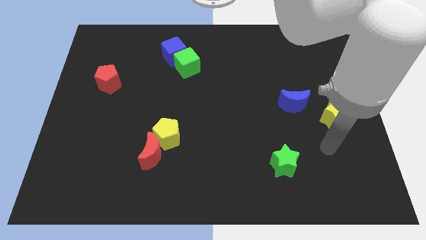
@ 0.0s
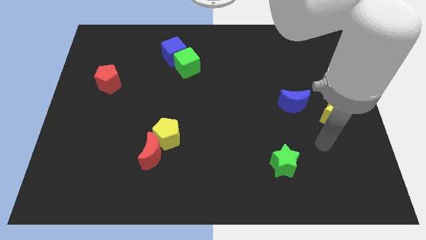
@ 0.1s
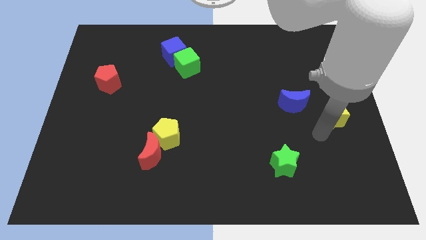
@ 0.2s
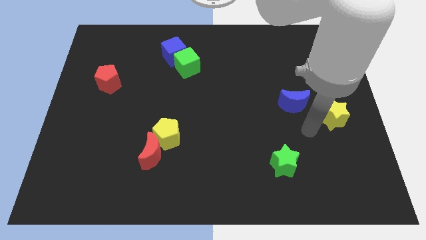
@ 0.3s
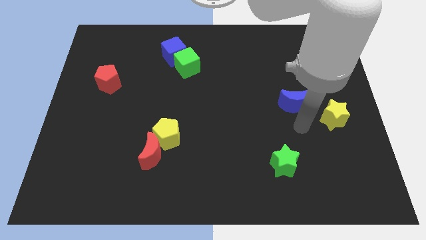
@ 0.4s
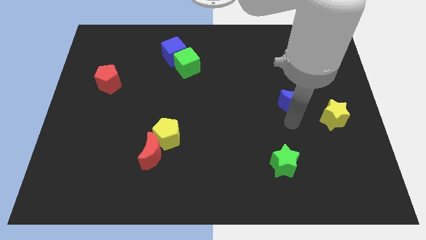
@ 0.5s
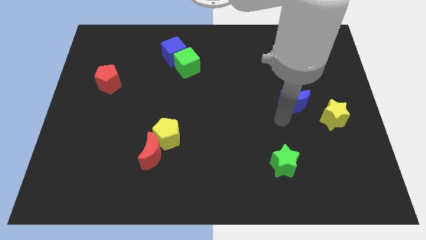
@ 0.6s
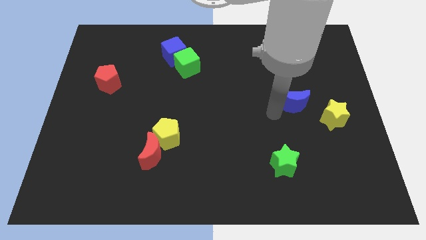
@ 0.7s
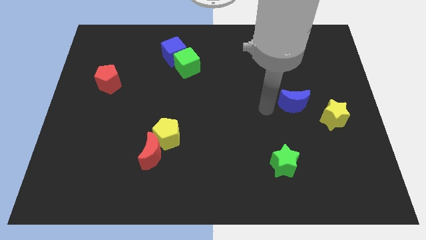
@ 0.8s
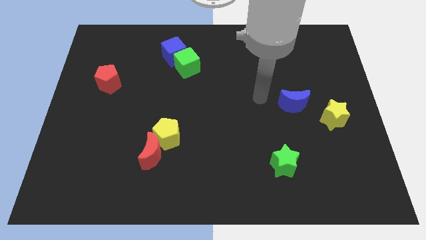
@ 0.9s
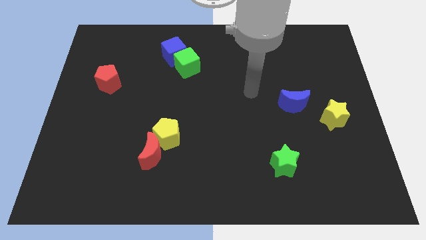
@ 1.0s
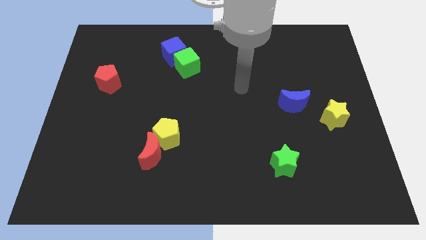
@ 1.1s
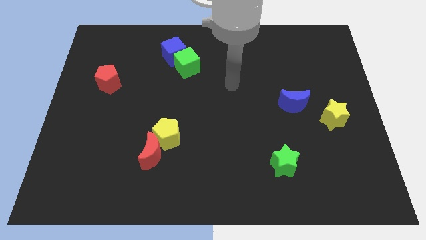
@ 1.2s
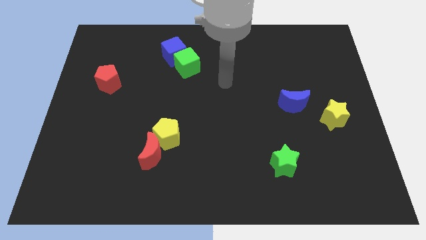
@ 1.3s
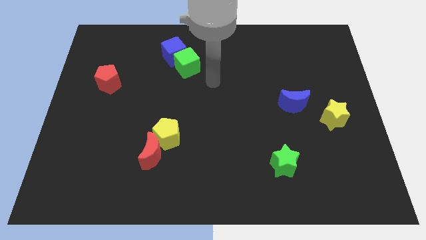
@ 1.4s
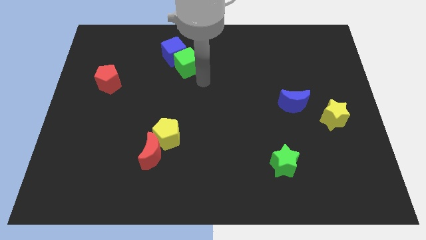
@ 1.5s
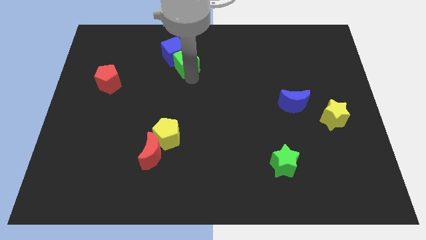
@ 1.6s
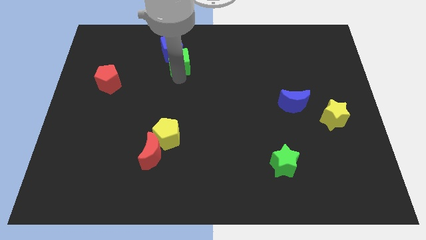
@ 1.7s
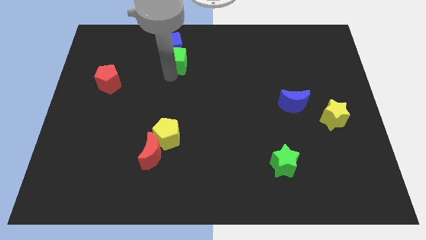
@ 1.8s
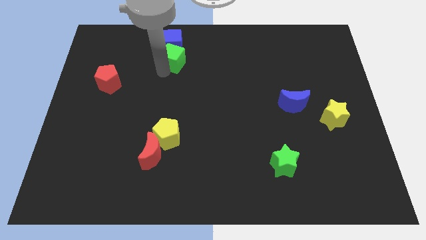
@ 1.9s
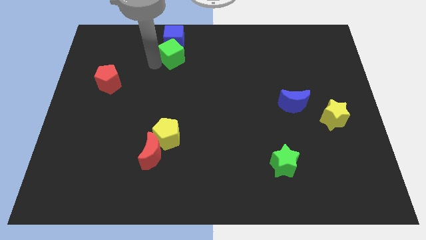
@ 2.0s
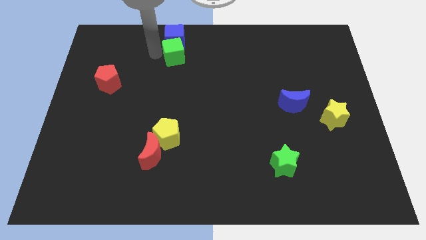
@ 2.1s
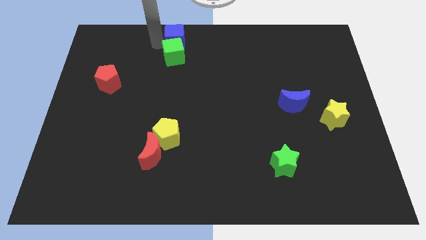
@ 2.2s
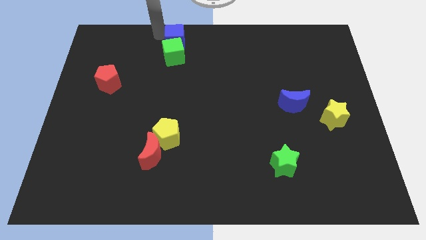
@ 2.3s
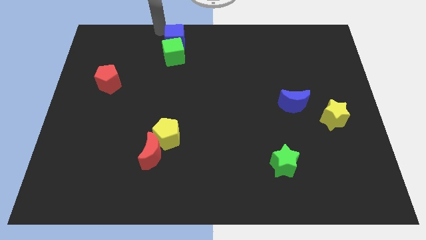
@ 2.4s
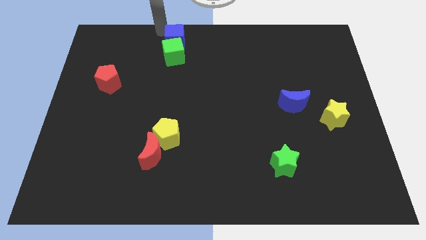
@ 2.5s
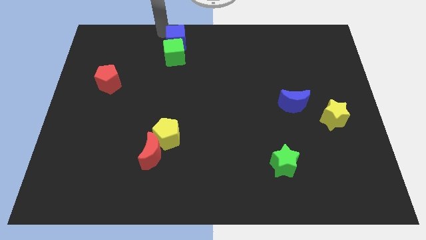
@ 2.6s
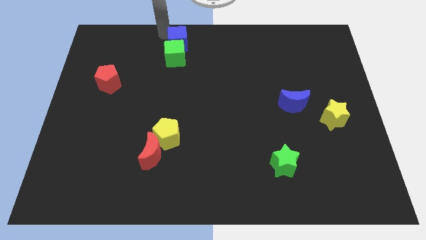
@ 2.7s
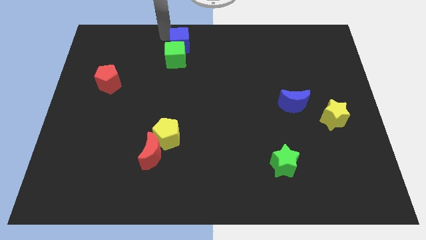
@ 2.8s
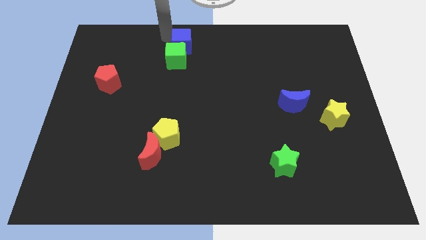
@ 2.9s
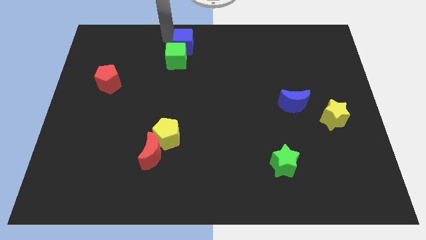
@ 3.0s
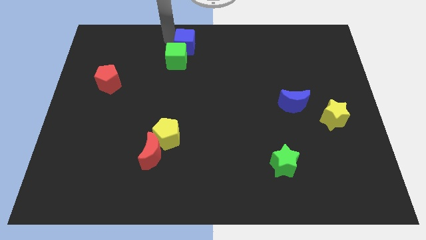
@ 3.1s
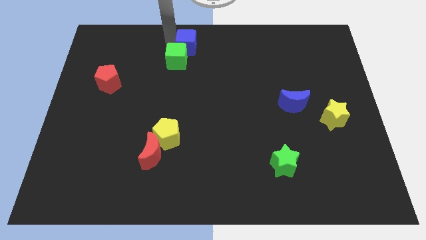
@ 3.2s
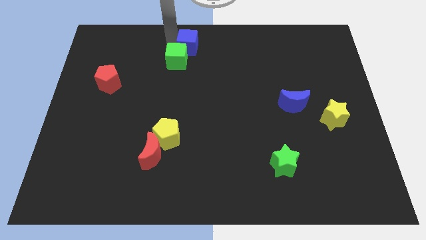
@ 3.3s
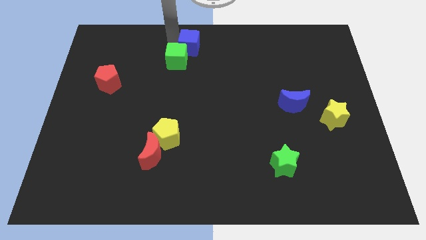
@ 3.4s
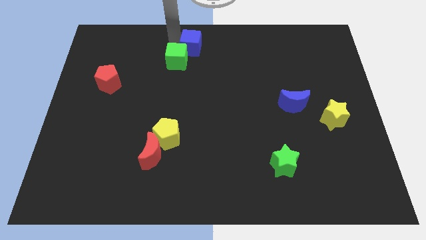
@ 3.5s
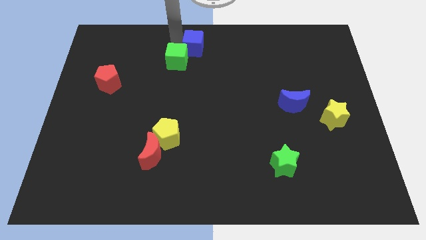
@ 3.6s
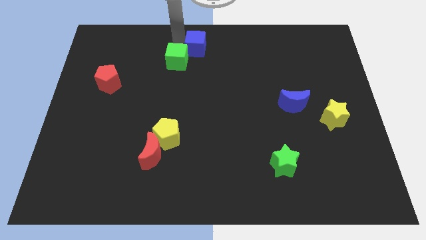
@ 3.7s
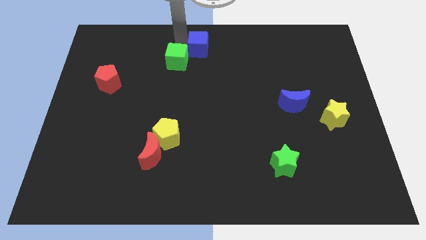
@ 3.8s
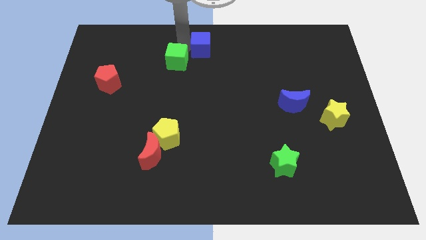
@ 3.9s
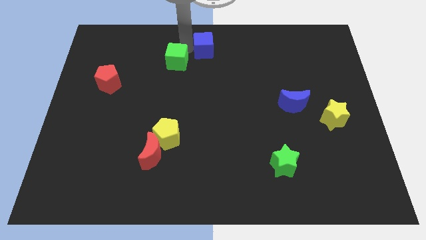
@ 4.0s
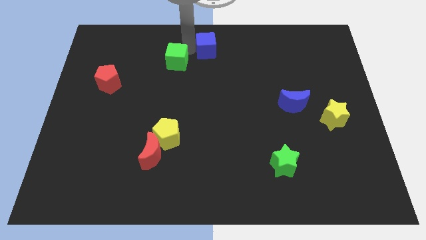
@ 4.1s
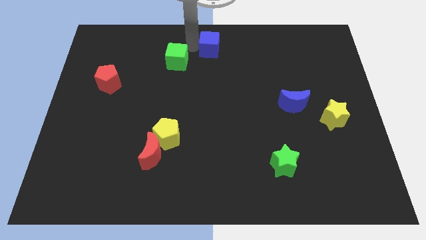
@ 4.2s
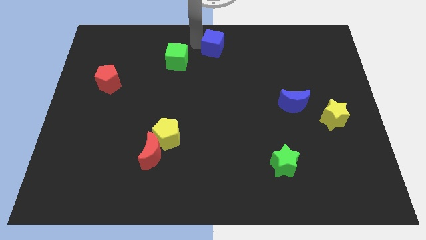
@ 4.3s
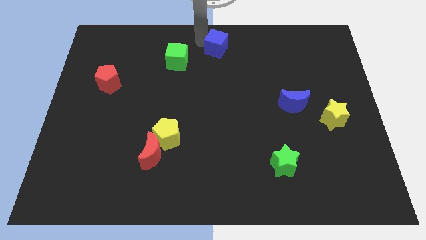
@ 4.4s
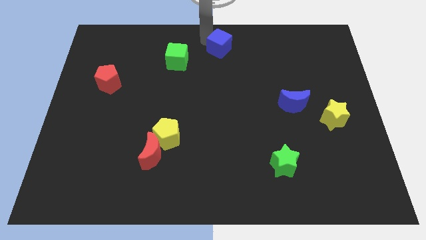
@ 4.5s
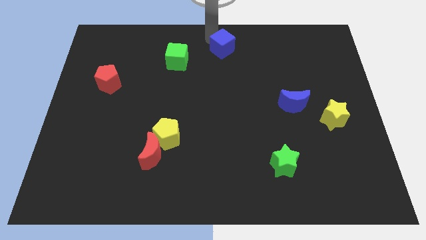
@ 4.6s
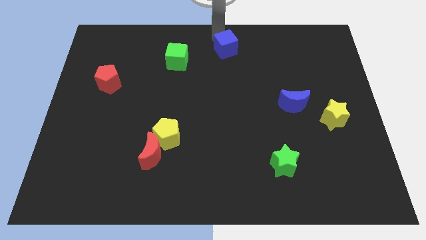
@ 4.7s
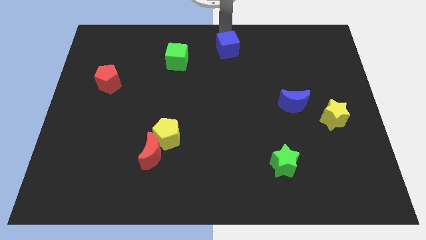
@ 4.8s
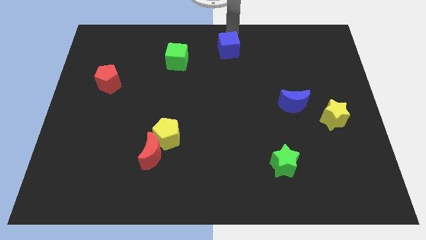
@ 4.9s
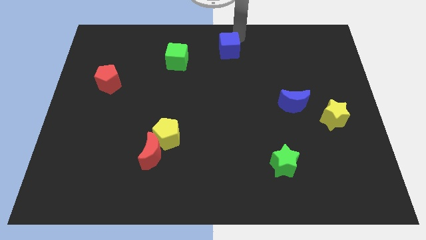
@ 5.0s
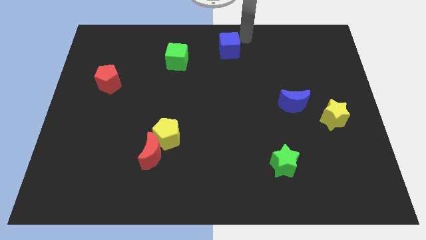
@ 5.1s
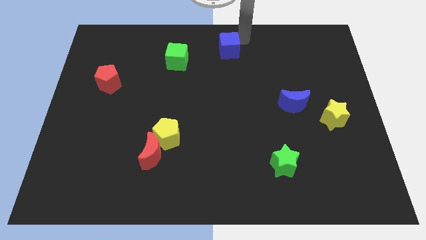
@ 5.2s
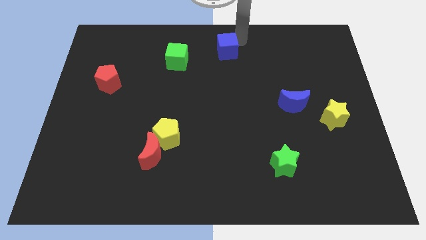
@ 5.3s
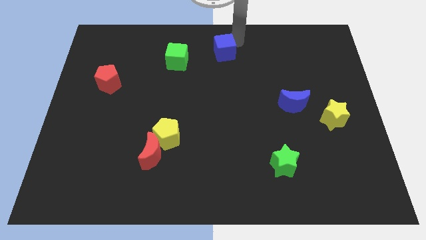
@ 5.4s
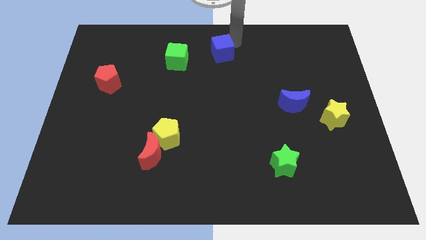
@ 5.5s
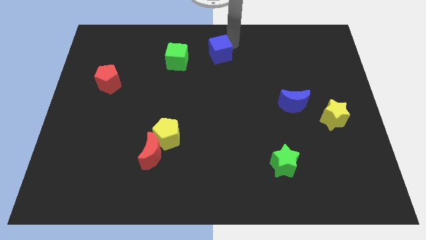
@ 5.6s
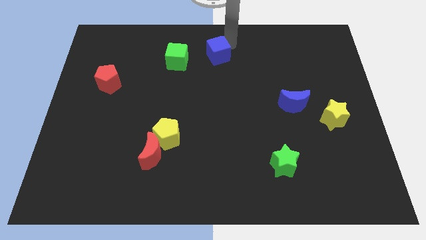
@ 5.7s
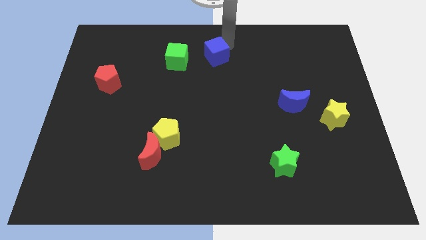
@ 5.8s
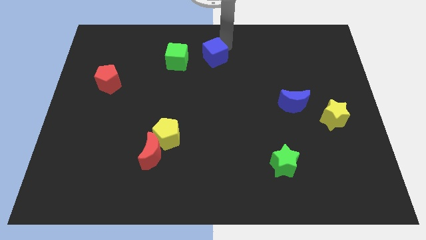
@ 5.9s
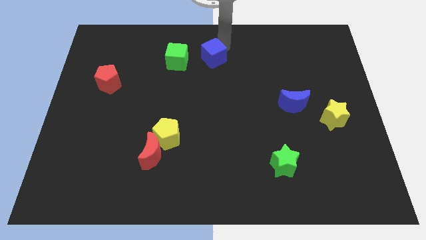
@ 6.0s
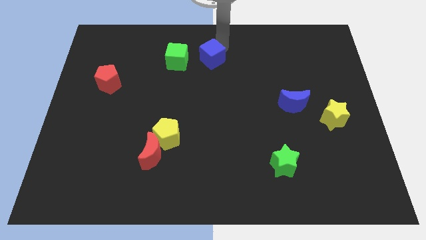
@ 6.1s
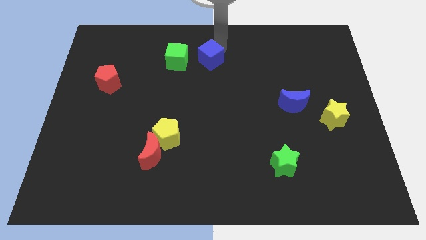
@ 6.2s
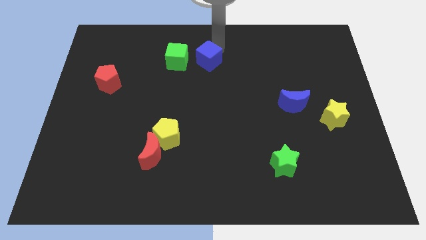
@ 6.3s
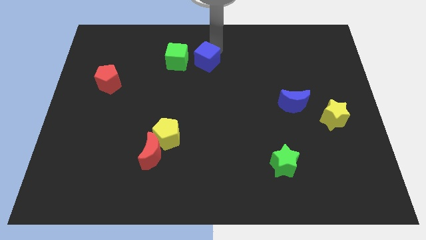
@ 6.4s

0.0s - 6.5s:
slide the blue cube down and then to the right a little

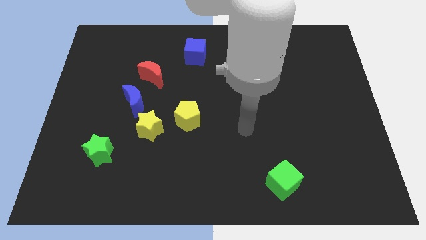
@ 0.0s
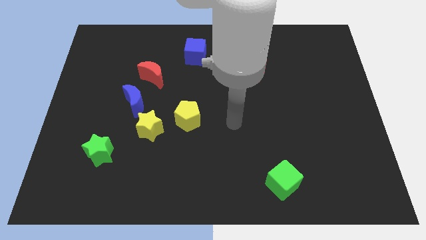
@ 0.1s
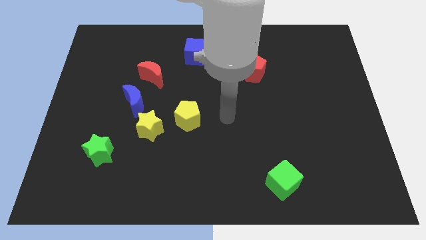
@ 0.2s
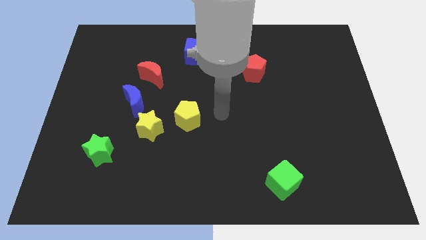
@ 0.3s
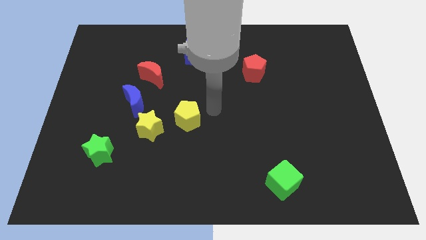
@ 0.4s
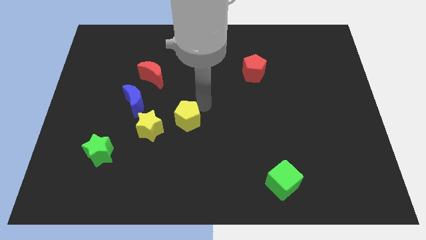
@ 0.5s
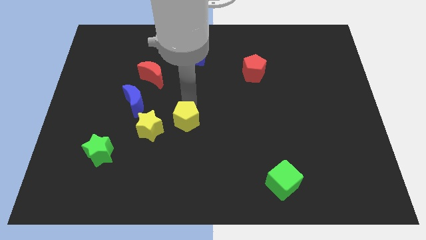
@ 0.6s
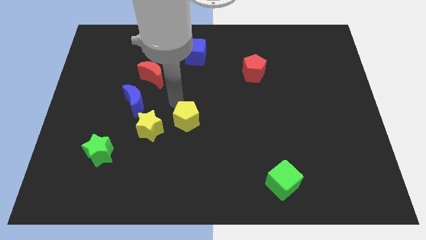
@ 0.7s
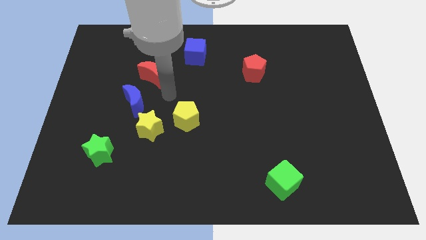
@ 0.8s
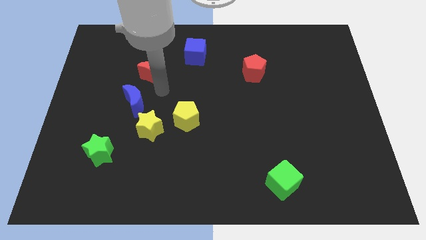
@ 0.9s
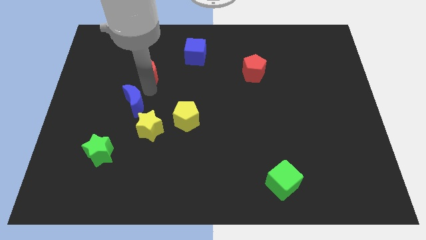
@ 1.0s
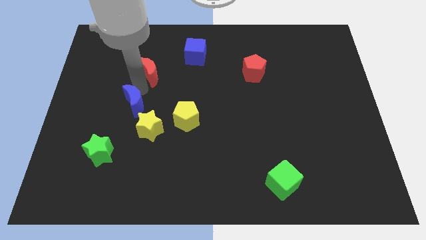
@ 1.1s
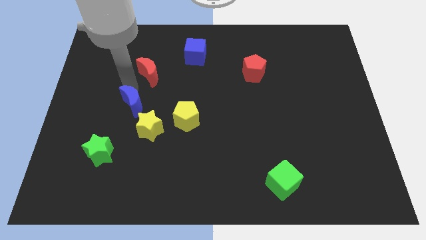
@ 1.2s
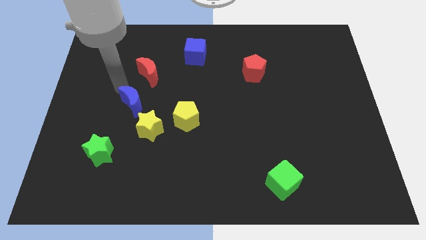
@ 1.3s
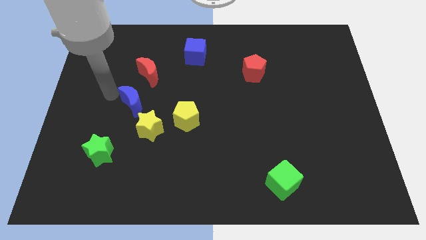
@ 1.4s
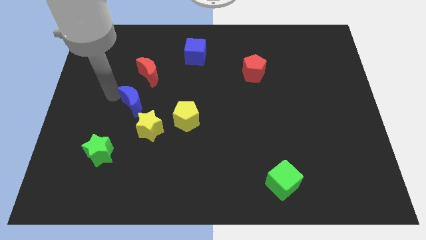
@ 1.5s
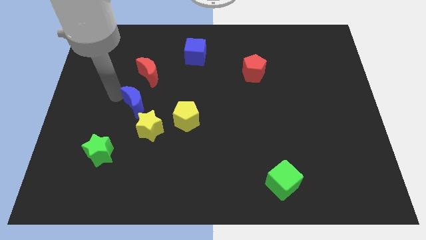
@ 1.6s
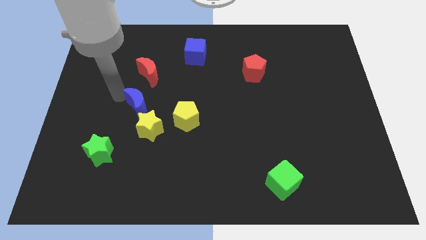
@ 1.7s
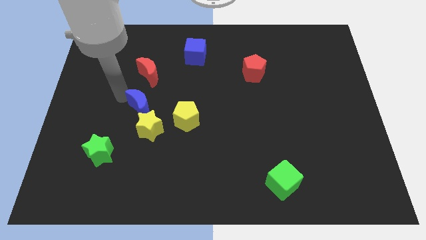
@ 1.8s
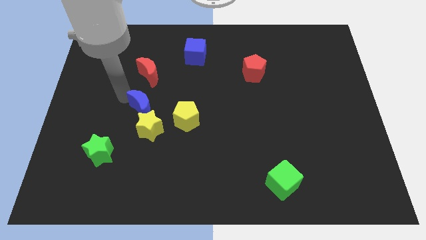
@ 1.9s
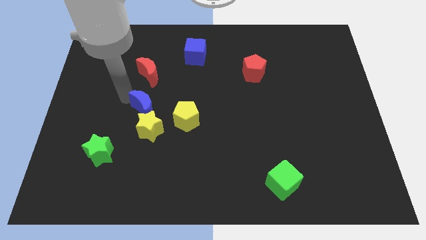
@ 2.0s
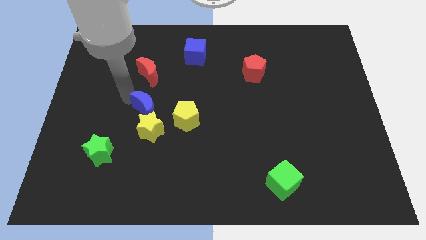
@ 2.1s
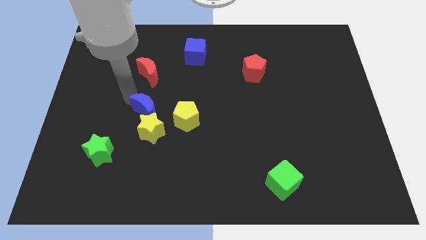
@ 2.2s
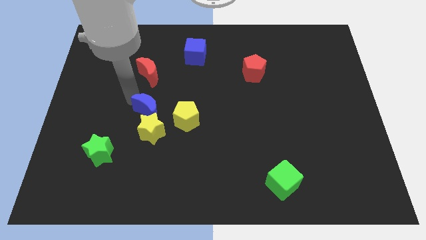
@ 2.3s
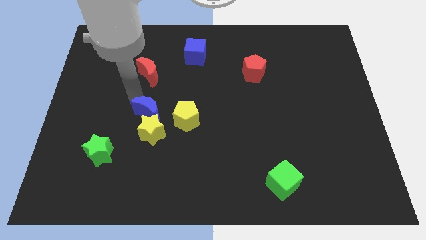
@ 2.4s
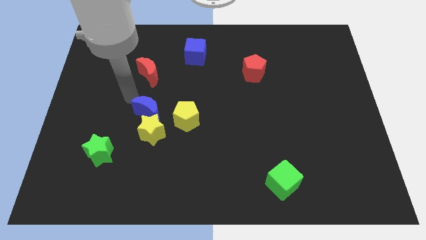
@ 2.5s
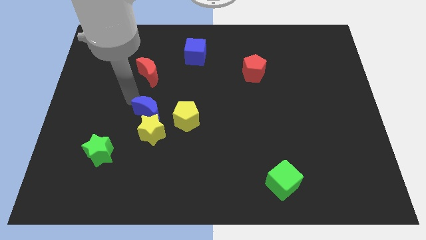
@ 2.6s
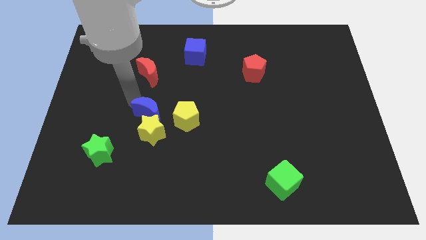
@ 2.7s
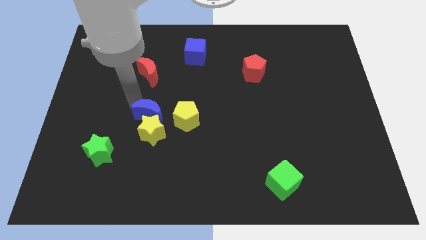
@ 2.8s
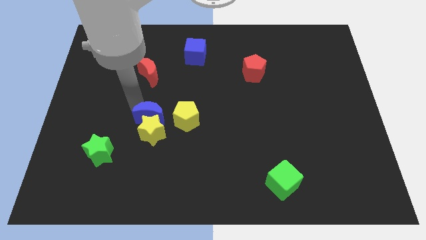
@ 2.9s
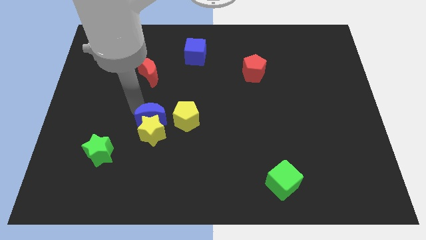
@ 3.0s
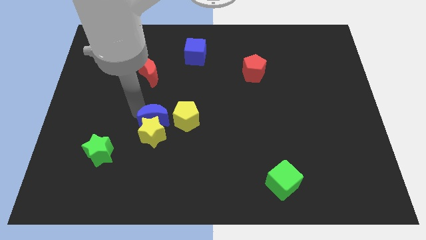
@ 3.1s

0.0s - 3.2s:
slide the blue moon somewhat diagonally down and to the right
